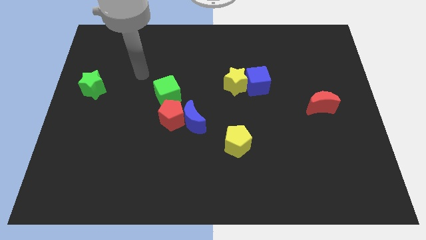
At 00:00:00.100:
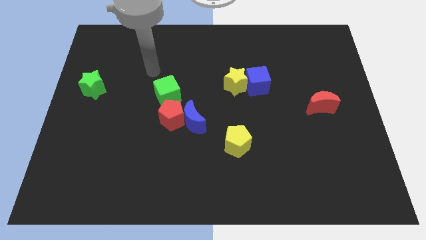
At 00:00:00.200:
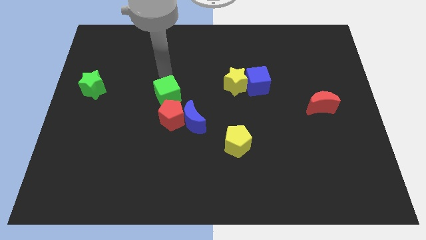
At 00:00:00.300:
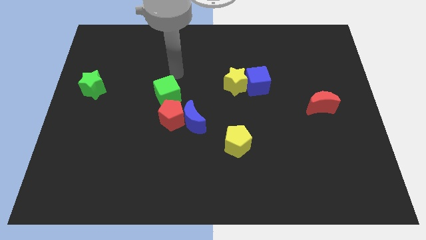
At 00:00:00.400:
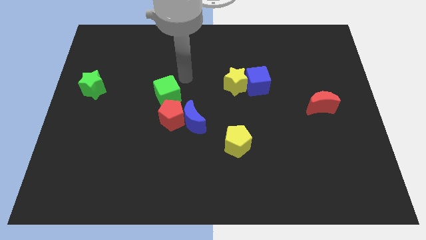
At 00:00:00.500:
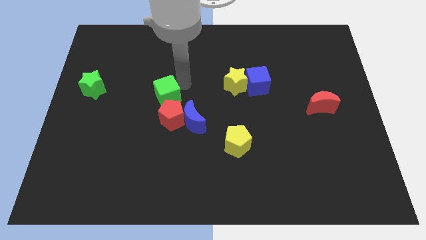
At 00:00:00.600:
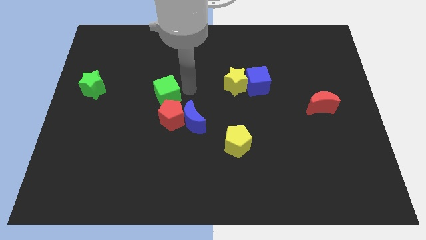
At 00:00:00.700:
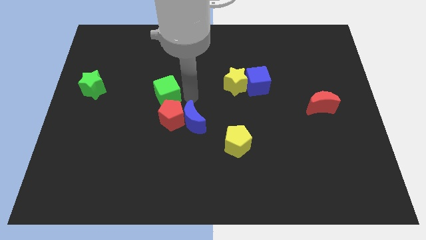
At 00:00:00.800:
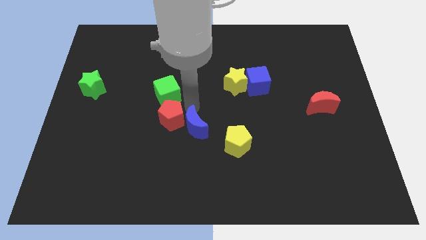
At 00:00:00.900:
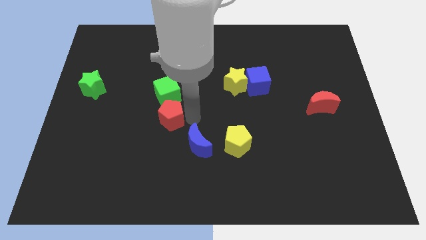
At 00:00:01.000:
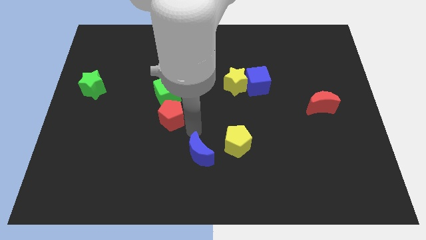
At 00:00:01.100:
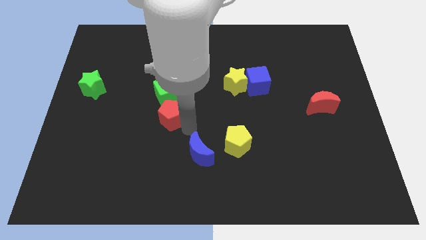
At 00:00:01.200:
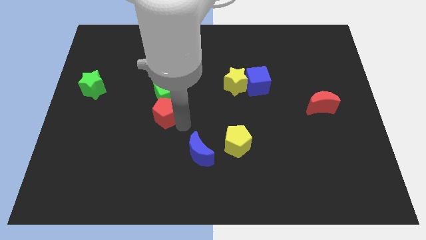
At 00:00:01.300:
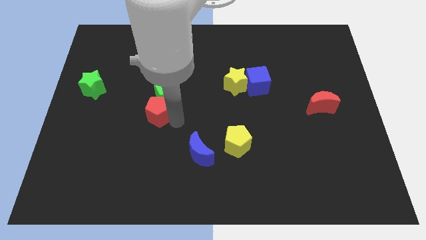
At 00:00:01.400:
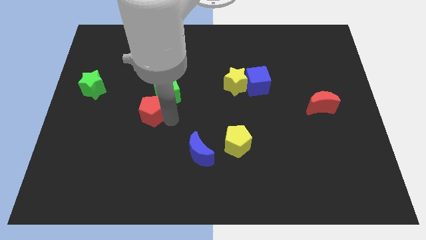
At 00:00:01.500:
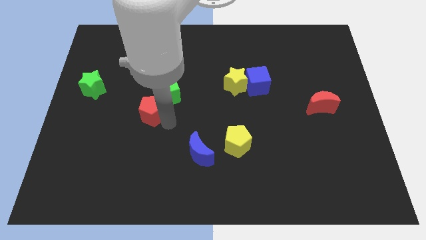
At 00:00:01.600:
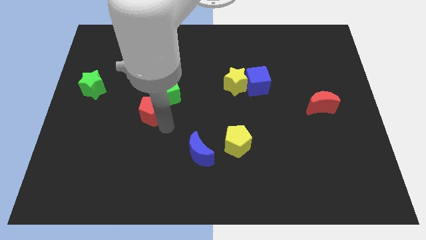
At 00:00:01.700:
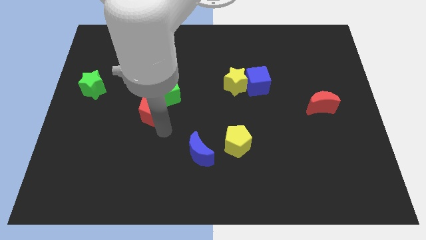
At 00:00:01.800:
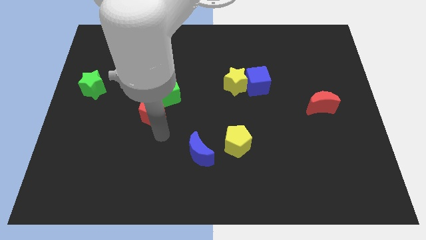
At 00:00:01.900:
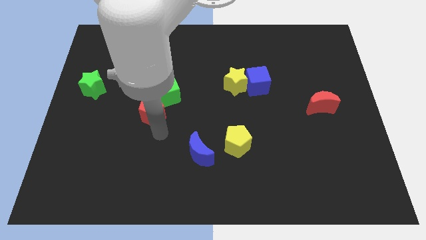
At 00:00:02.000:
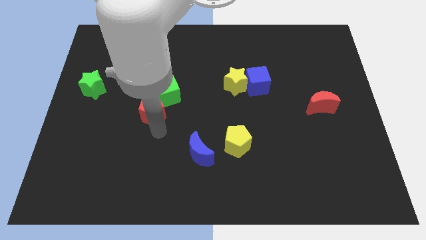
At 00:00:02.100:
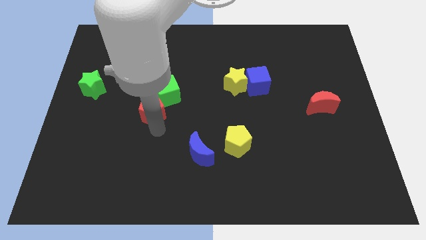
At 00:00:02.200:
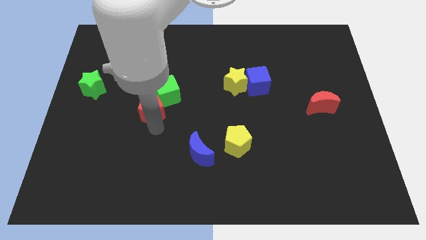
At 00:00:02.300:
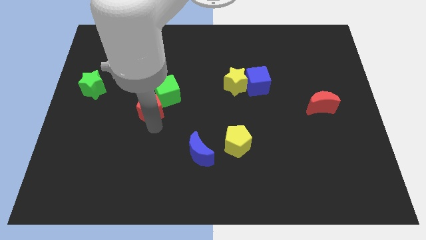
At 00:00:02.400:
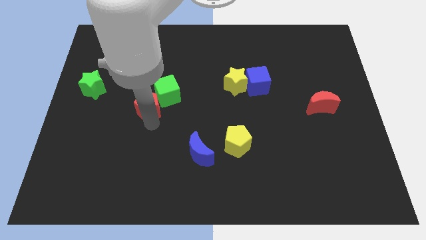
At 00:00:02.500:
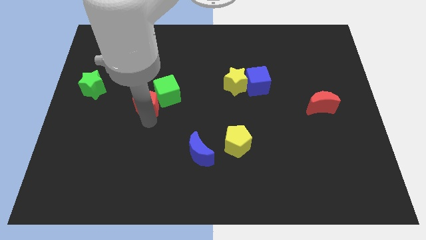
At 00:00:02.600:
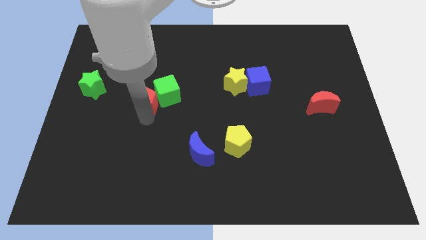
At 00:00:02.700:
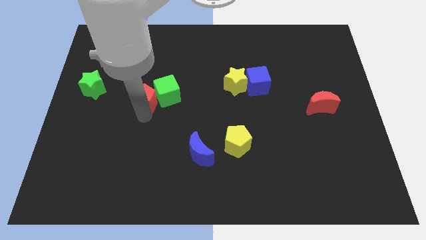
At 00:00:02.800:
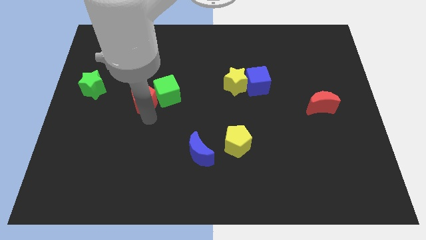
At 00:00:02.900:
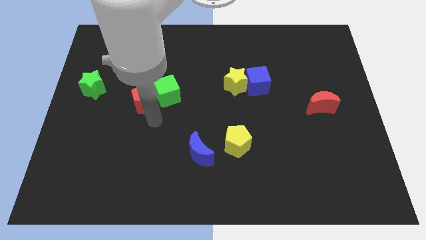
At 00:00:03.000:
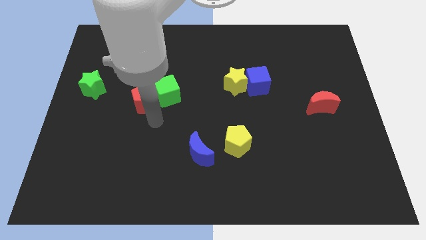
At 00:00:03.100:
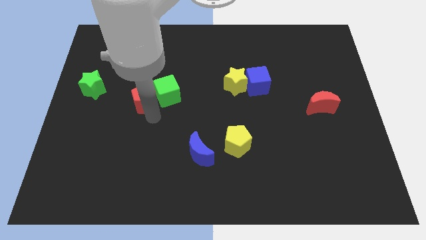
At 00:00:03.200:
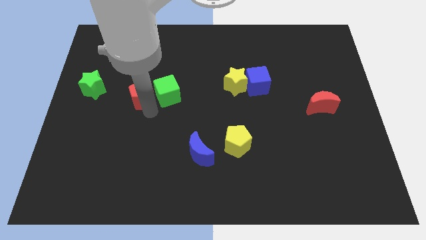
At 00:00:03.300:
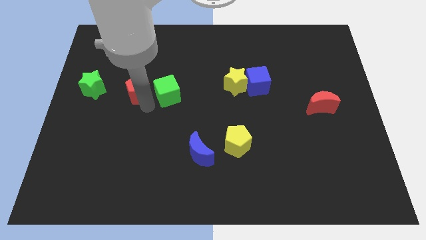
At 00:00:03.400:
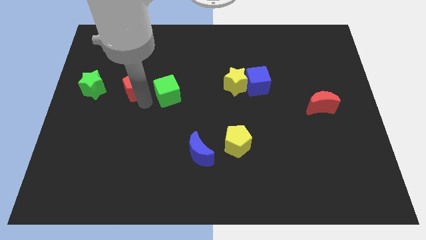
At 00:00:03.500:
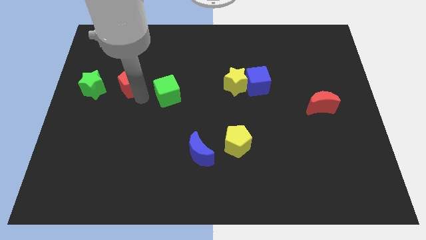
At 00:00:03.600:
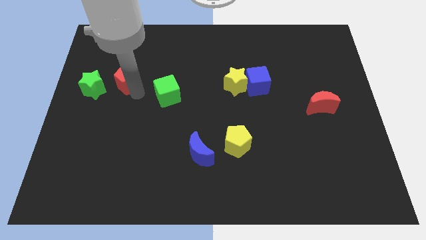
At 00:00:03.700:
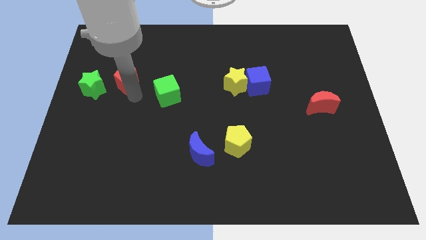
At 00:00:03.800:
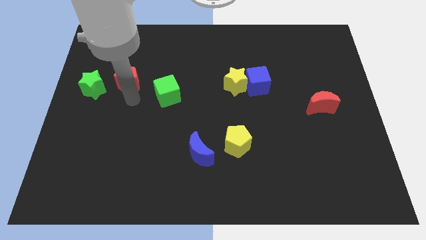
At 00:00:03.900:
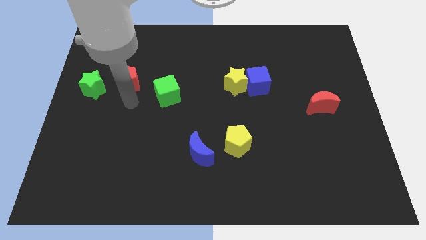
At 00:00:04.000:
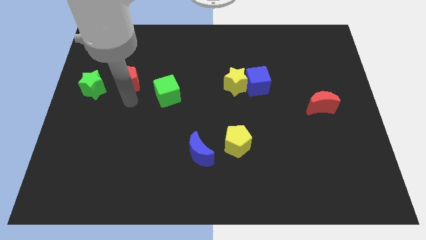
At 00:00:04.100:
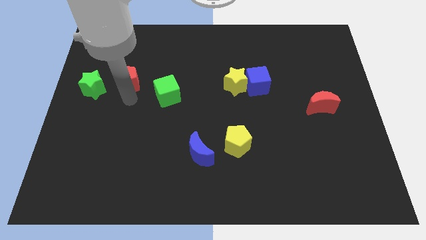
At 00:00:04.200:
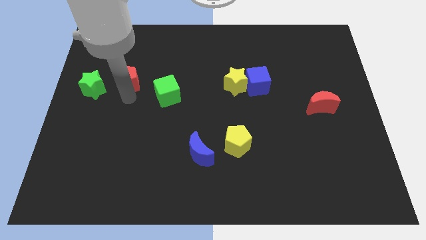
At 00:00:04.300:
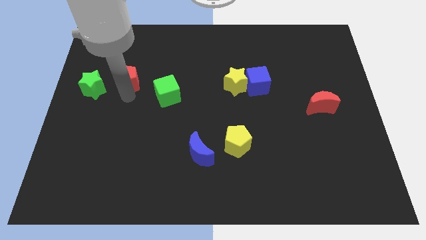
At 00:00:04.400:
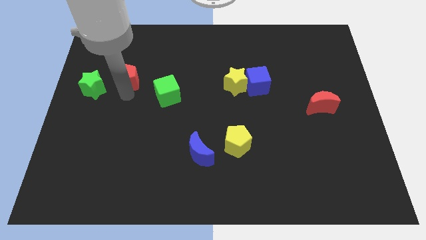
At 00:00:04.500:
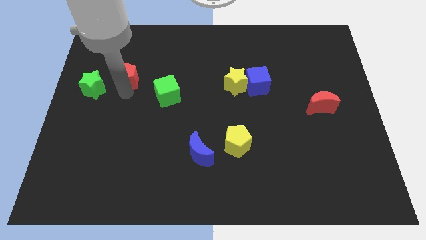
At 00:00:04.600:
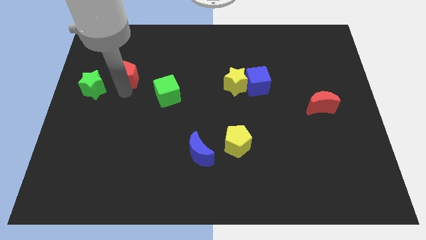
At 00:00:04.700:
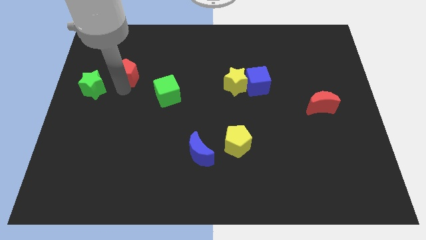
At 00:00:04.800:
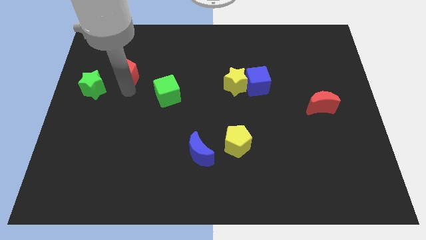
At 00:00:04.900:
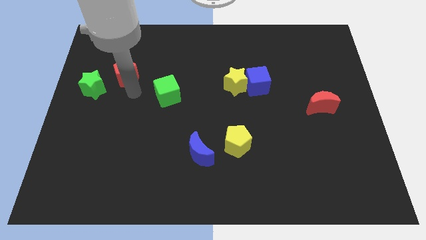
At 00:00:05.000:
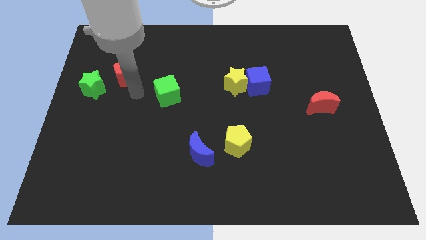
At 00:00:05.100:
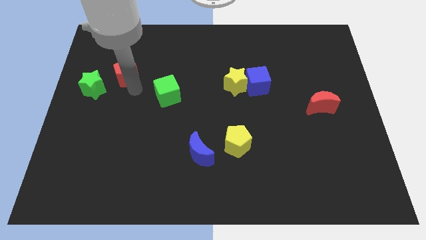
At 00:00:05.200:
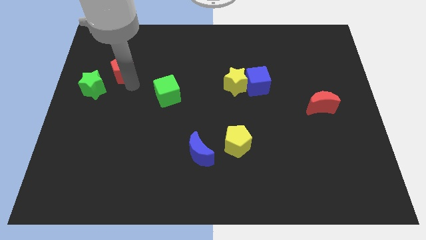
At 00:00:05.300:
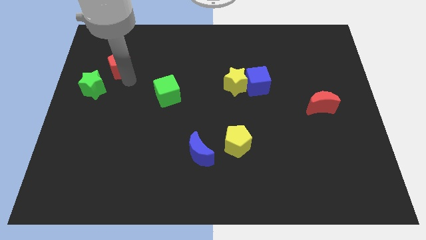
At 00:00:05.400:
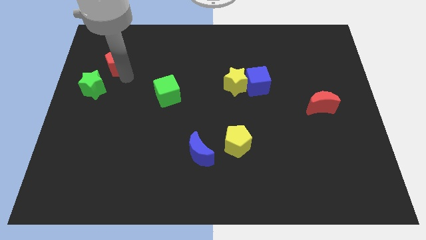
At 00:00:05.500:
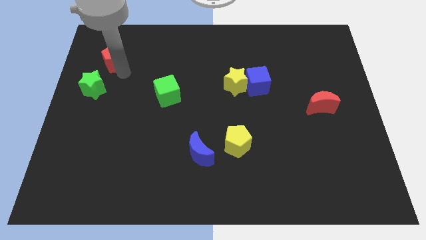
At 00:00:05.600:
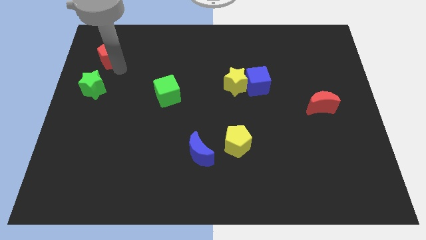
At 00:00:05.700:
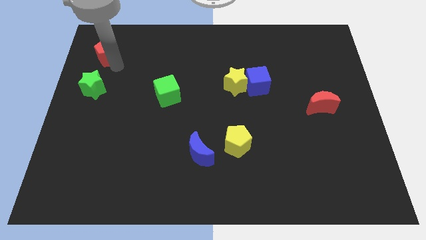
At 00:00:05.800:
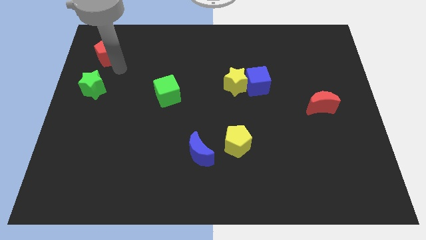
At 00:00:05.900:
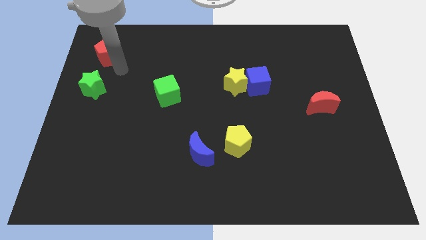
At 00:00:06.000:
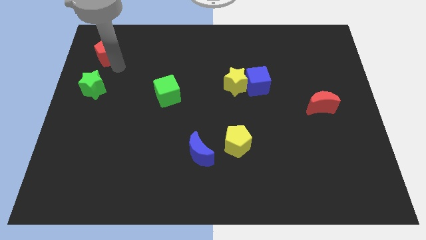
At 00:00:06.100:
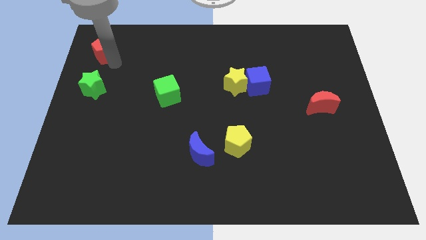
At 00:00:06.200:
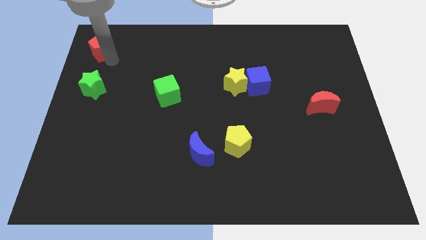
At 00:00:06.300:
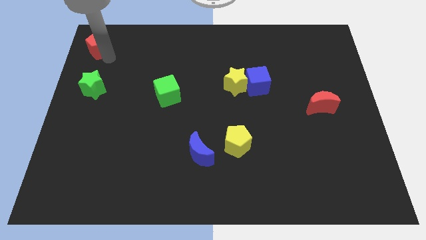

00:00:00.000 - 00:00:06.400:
put the red pentagon to the top left
